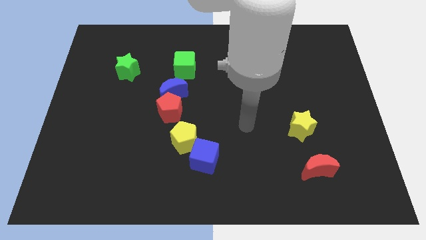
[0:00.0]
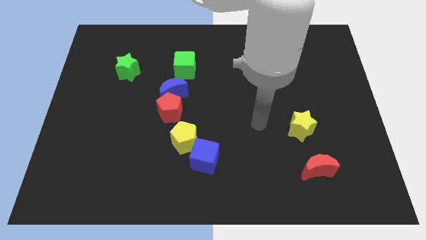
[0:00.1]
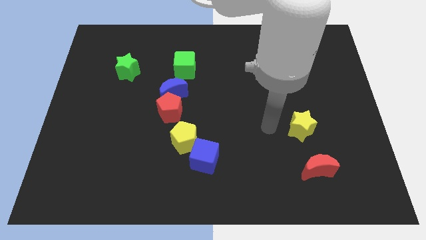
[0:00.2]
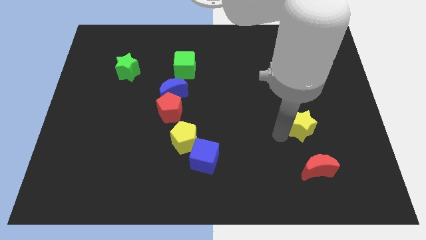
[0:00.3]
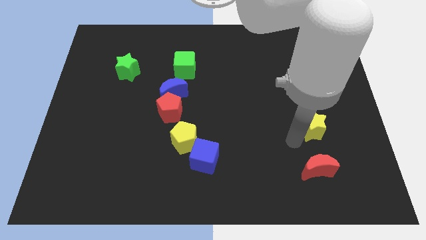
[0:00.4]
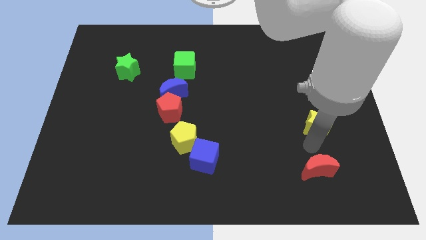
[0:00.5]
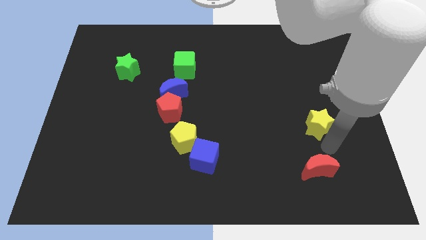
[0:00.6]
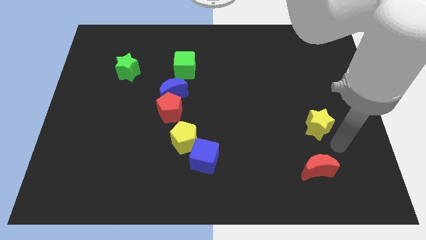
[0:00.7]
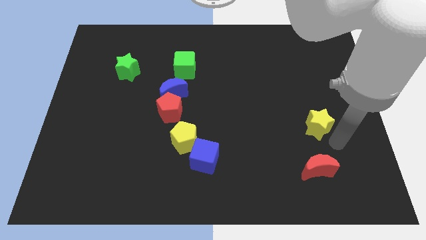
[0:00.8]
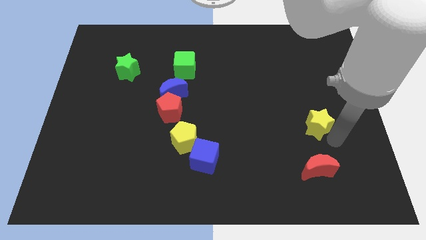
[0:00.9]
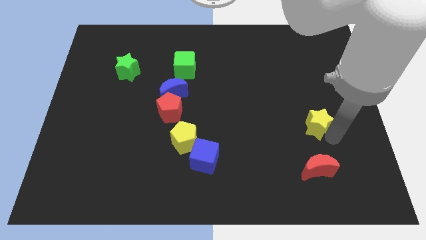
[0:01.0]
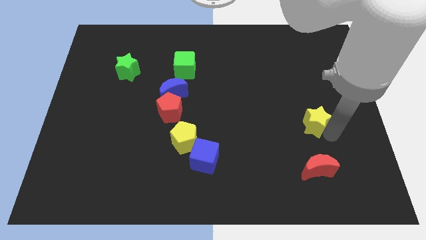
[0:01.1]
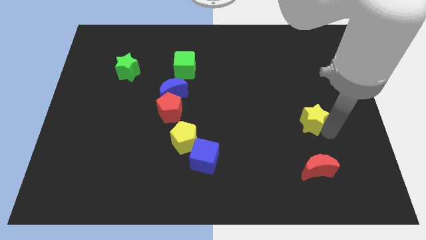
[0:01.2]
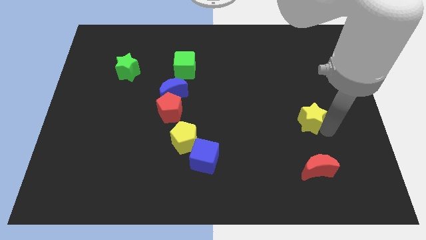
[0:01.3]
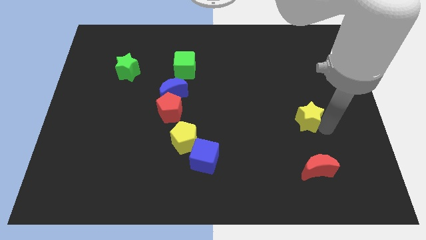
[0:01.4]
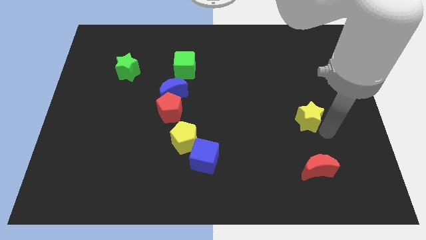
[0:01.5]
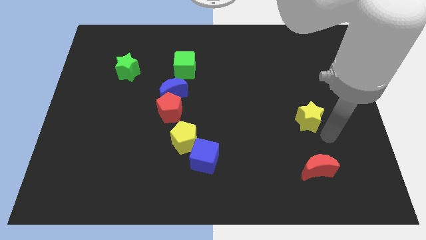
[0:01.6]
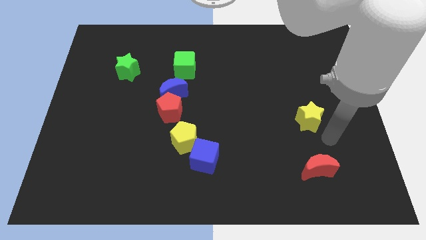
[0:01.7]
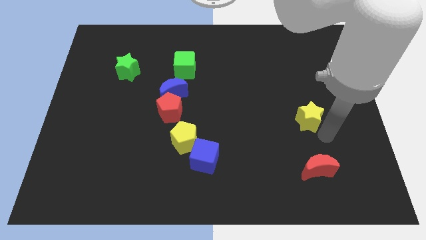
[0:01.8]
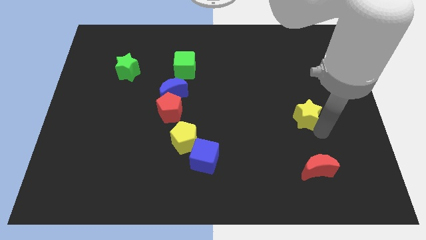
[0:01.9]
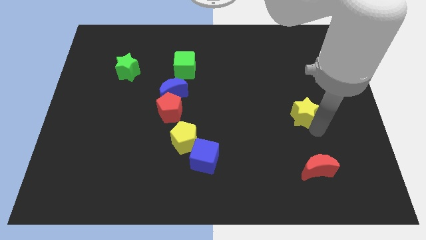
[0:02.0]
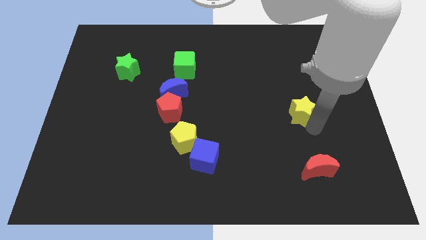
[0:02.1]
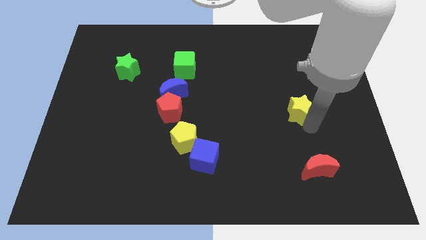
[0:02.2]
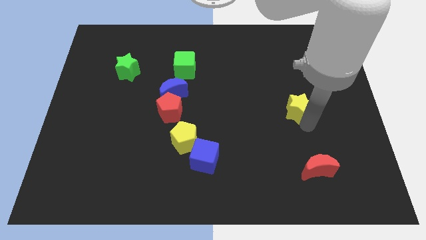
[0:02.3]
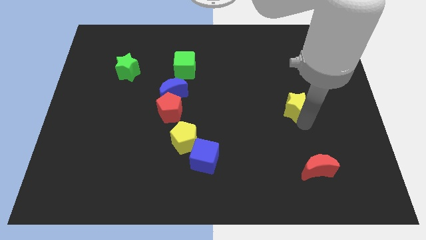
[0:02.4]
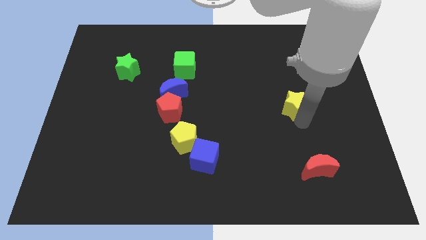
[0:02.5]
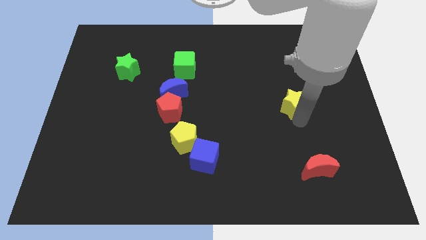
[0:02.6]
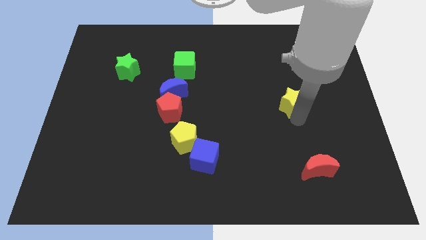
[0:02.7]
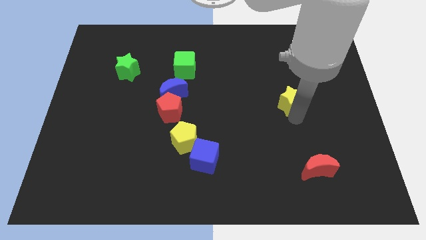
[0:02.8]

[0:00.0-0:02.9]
move the yellow star upwards a little

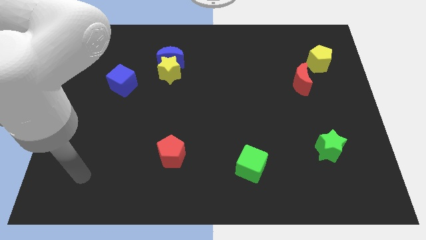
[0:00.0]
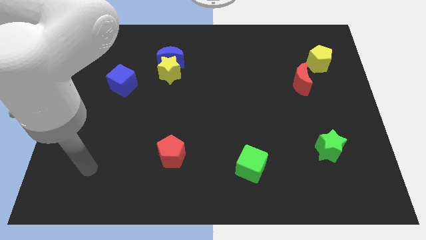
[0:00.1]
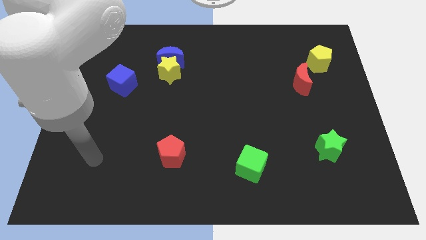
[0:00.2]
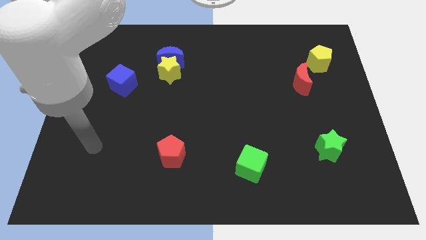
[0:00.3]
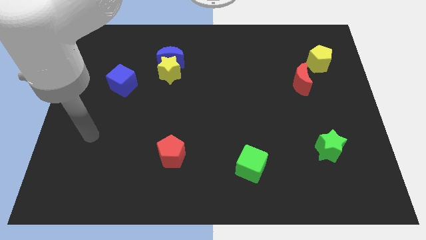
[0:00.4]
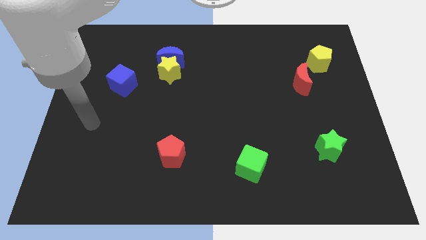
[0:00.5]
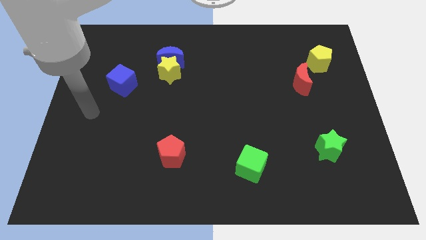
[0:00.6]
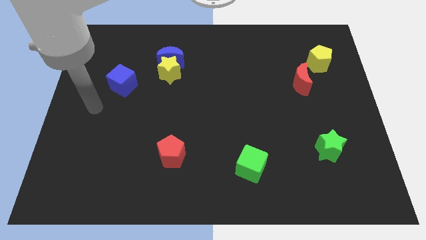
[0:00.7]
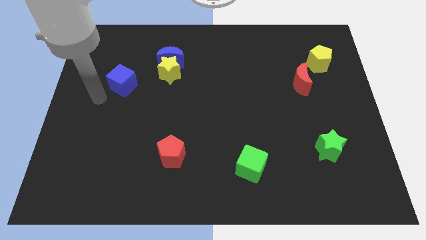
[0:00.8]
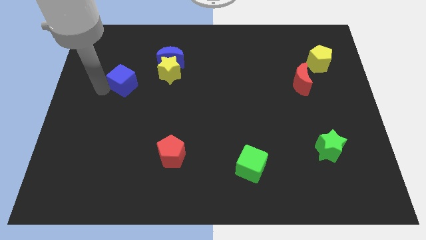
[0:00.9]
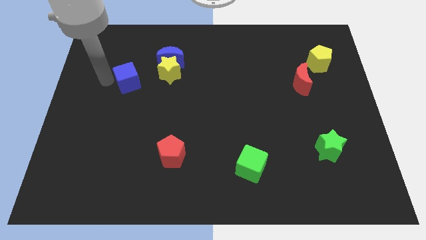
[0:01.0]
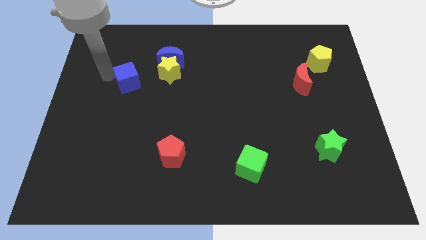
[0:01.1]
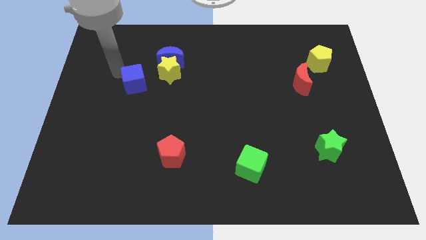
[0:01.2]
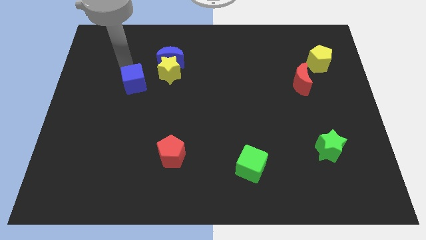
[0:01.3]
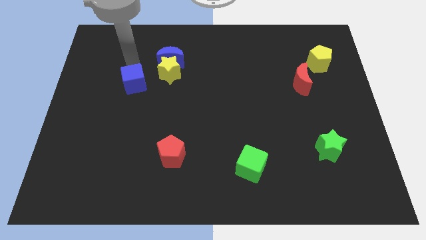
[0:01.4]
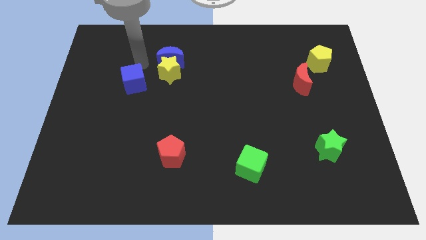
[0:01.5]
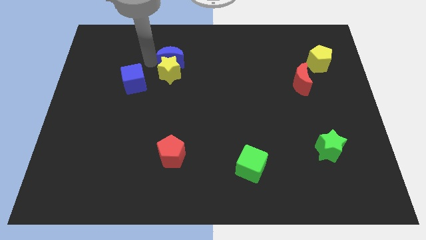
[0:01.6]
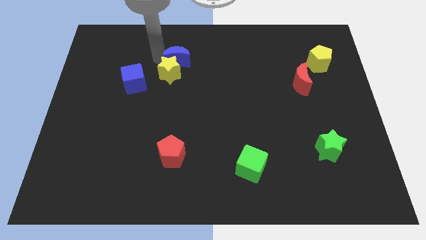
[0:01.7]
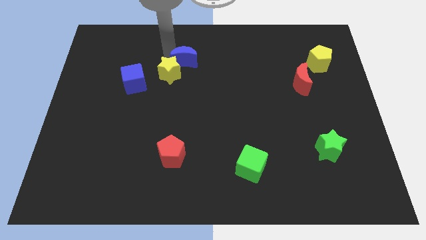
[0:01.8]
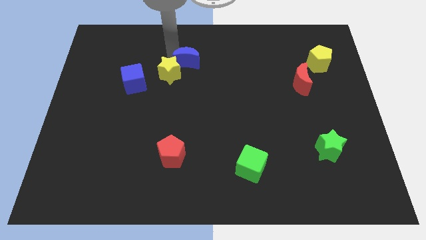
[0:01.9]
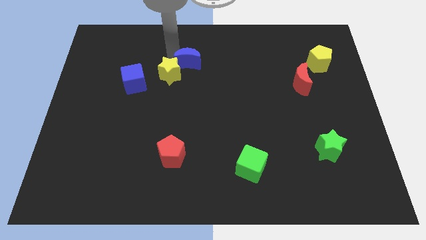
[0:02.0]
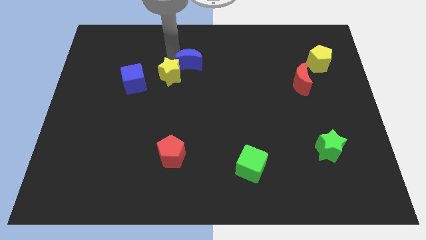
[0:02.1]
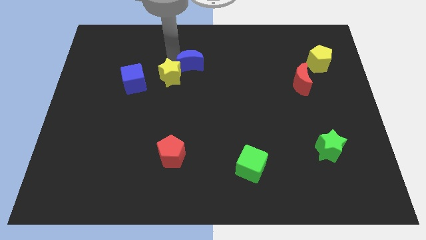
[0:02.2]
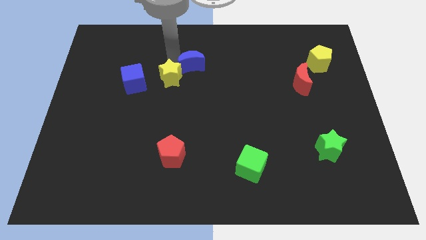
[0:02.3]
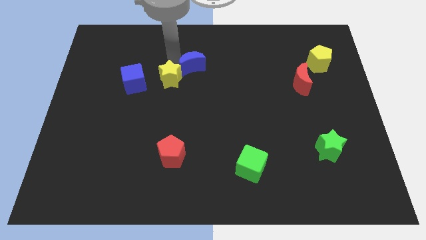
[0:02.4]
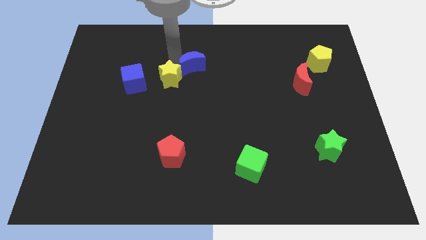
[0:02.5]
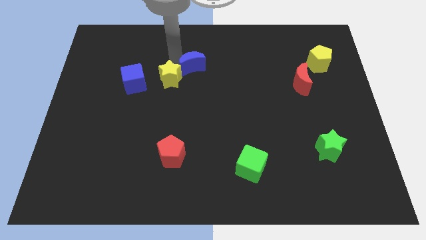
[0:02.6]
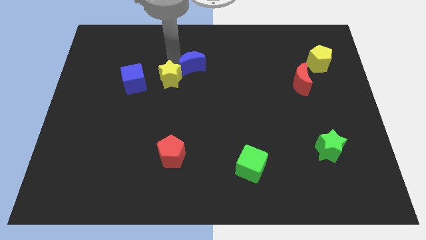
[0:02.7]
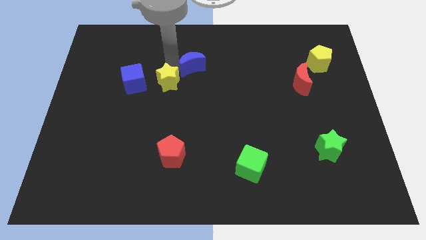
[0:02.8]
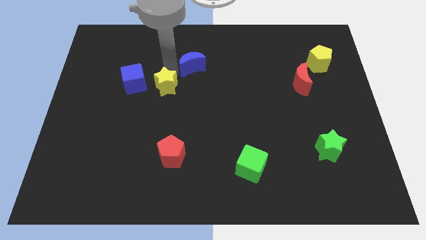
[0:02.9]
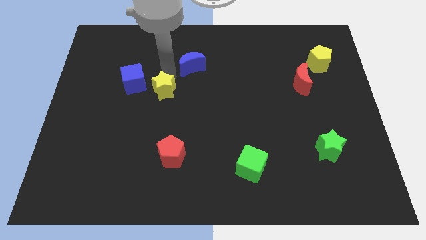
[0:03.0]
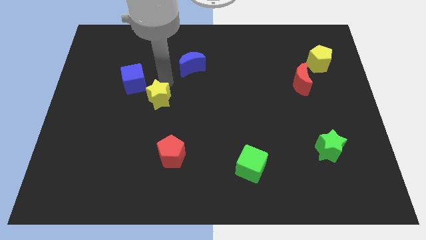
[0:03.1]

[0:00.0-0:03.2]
push the yellow star downwards a little

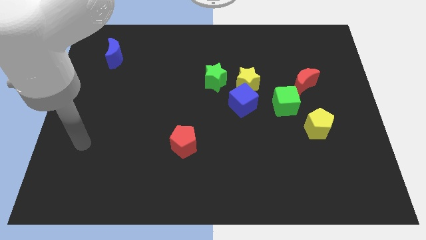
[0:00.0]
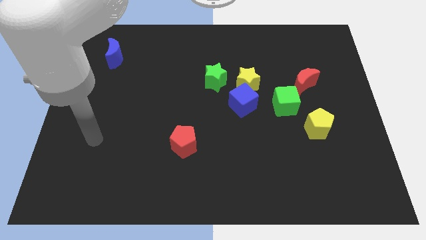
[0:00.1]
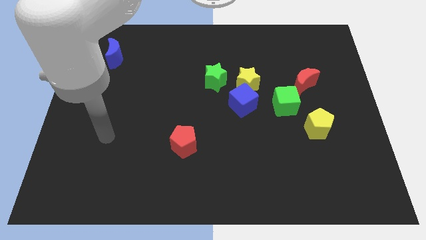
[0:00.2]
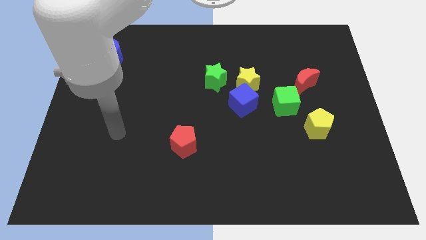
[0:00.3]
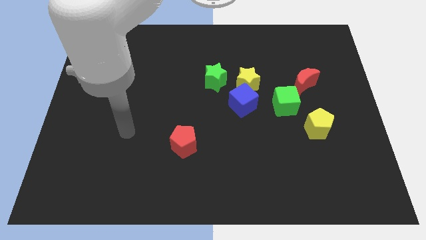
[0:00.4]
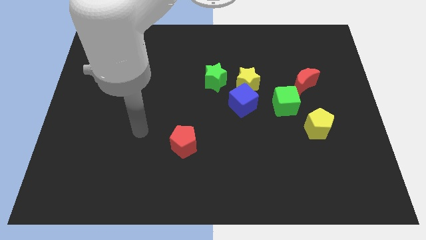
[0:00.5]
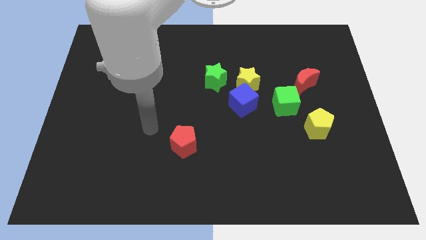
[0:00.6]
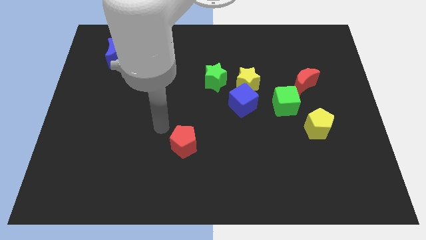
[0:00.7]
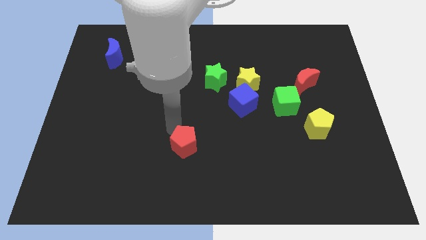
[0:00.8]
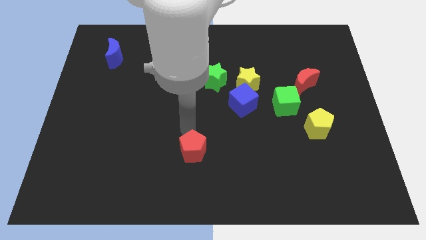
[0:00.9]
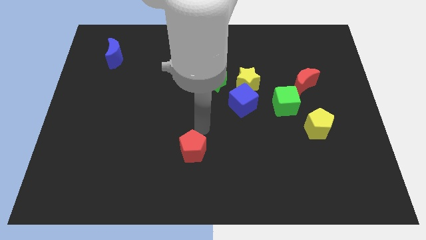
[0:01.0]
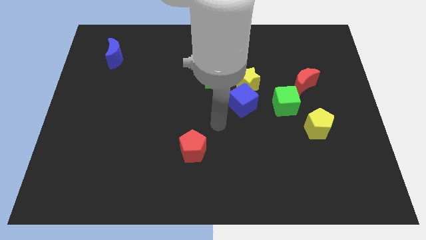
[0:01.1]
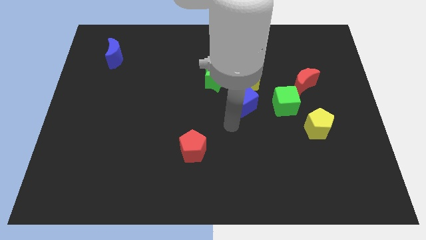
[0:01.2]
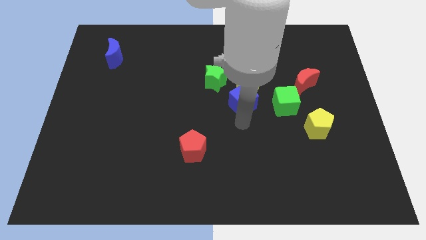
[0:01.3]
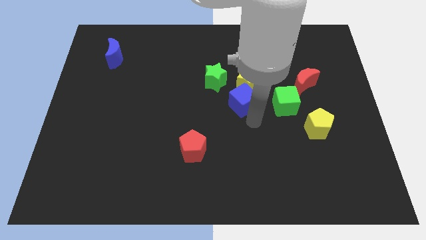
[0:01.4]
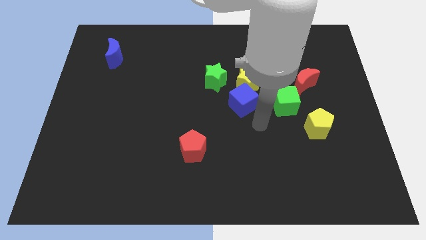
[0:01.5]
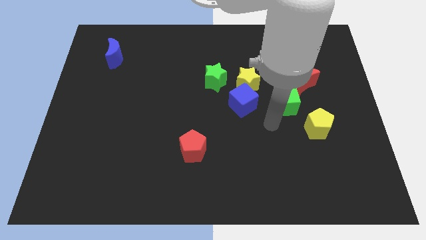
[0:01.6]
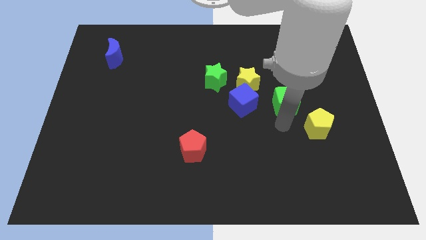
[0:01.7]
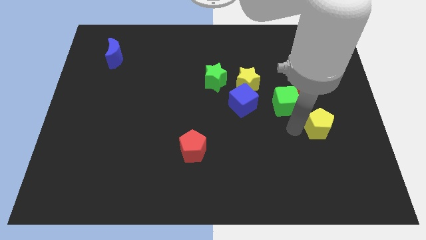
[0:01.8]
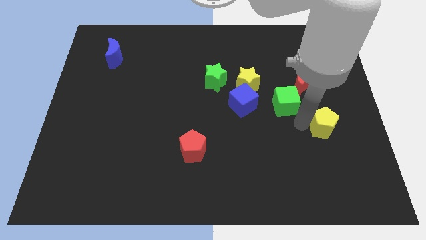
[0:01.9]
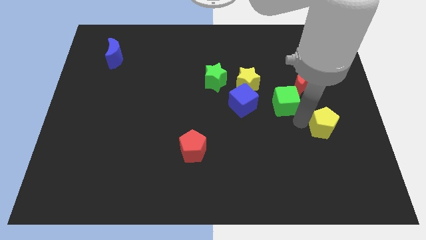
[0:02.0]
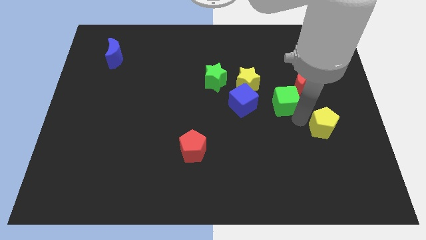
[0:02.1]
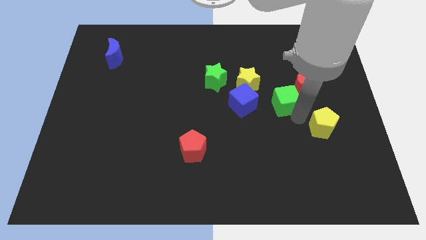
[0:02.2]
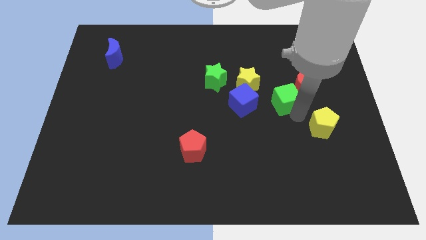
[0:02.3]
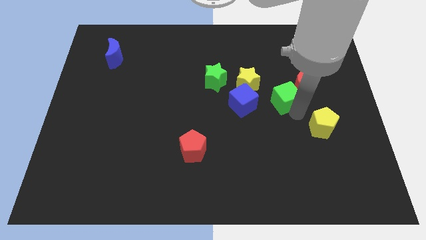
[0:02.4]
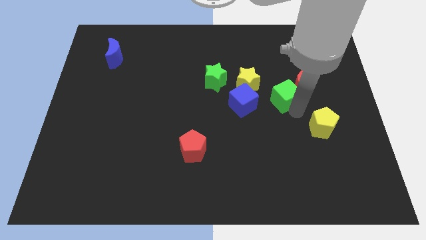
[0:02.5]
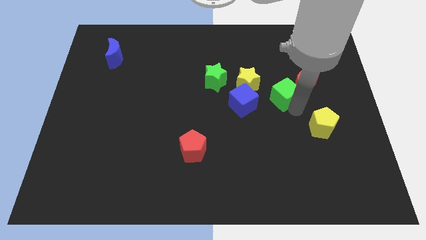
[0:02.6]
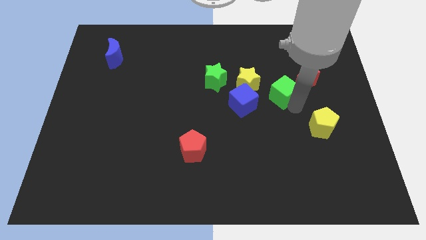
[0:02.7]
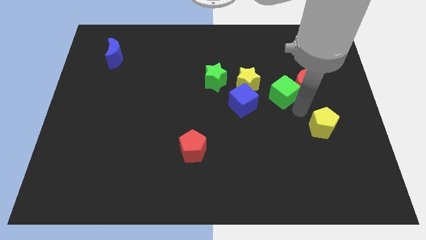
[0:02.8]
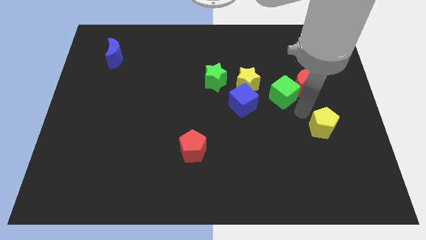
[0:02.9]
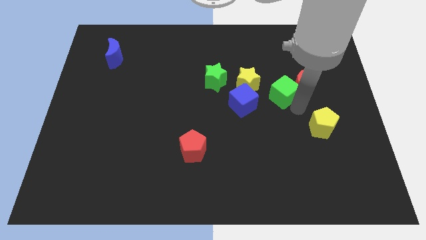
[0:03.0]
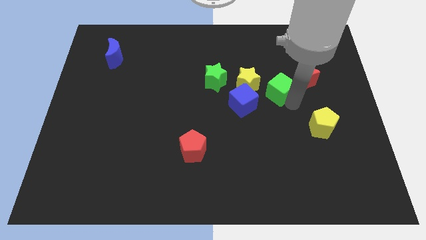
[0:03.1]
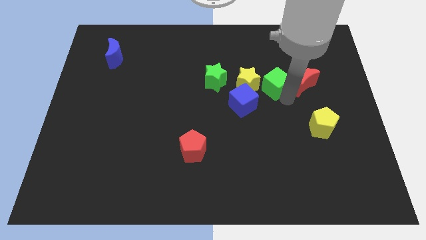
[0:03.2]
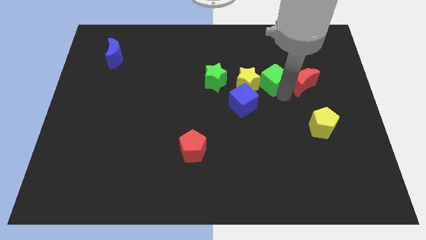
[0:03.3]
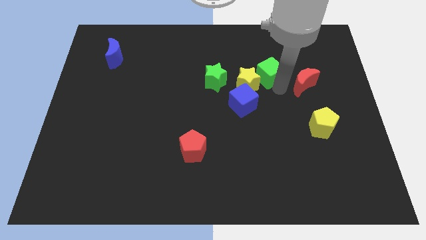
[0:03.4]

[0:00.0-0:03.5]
slide the green cube a little bit diagonally upwards and left
